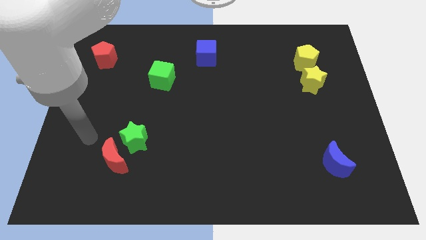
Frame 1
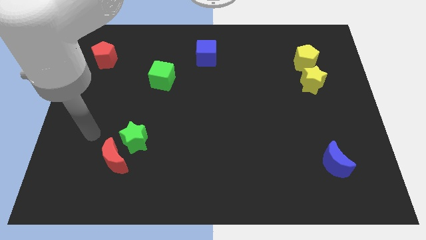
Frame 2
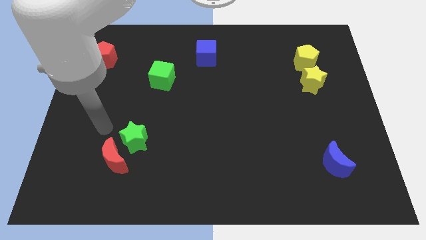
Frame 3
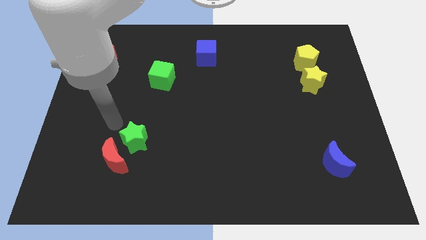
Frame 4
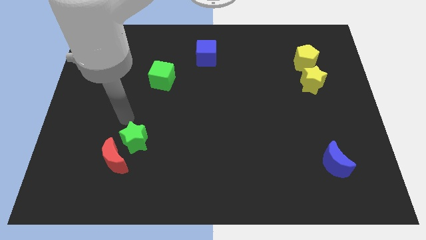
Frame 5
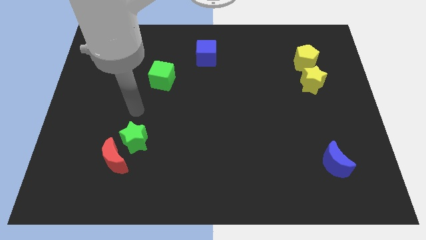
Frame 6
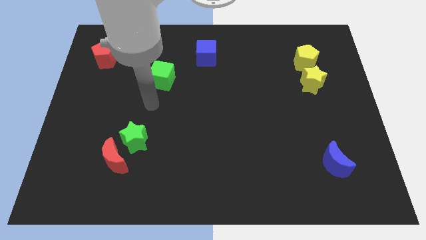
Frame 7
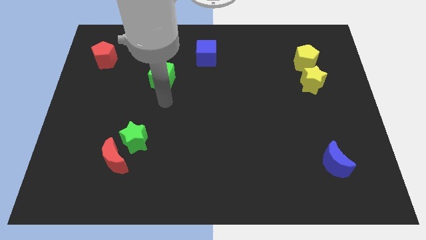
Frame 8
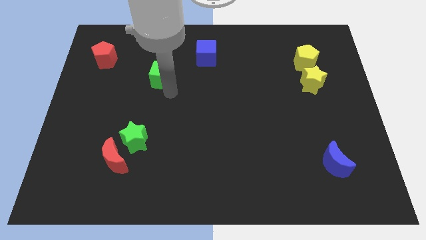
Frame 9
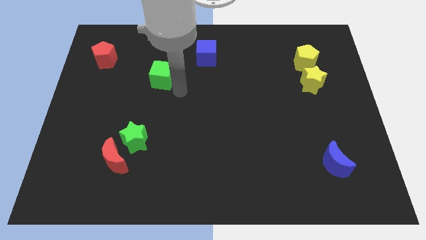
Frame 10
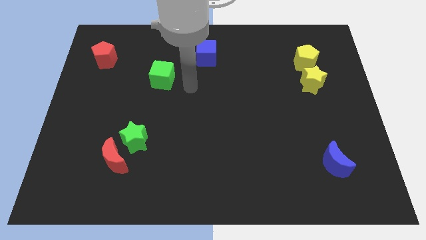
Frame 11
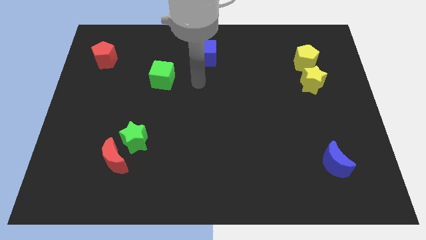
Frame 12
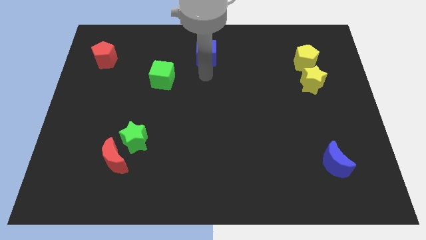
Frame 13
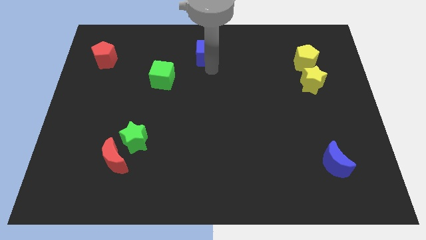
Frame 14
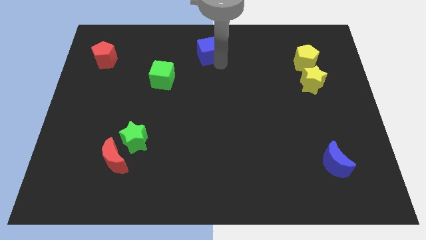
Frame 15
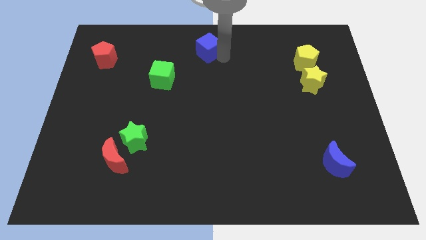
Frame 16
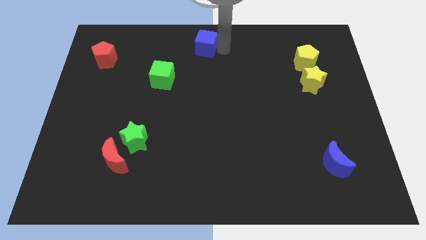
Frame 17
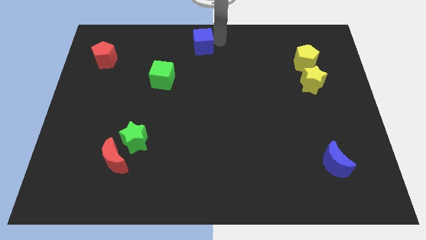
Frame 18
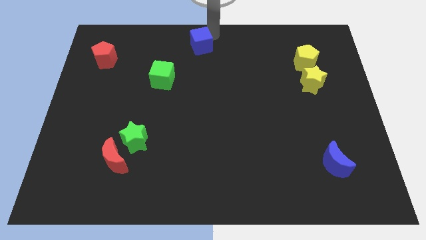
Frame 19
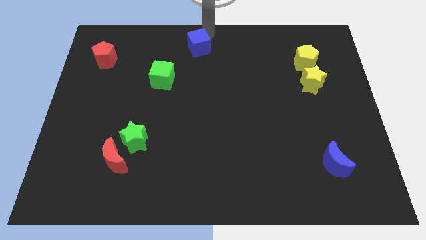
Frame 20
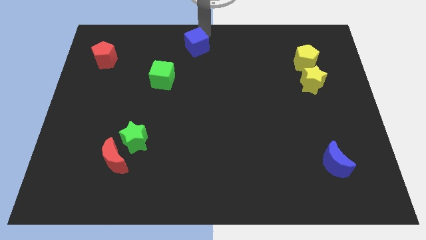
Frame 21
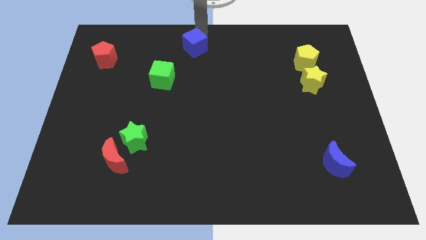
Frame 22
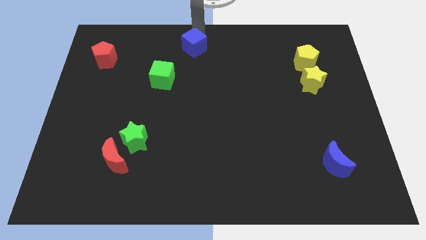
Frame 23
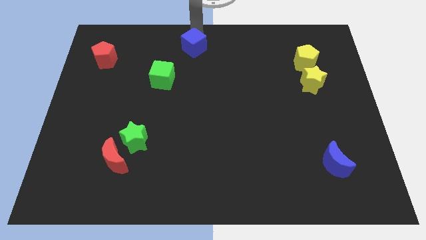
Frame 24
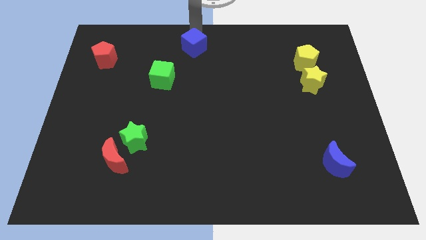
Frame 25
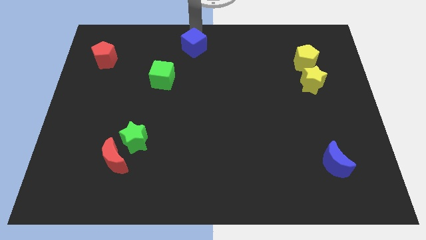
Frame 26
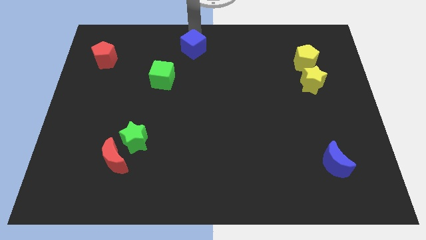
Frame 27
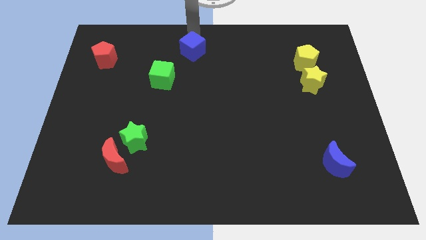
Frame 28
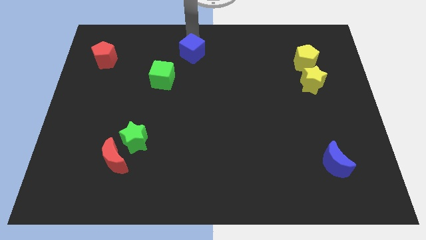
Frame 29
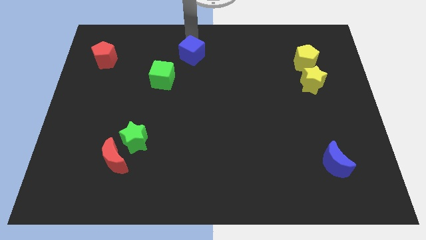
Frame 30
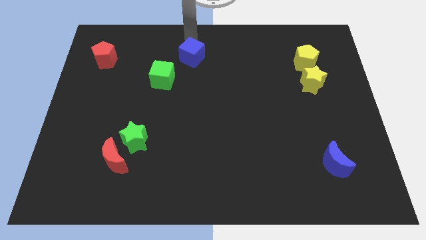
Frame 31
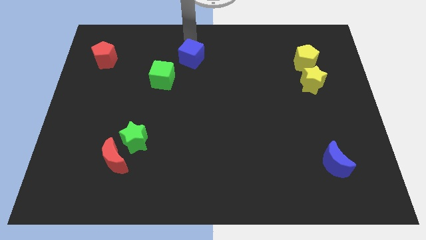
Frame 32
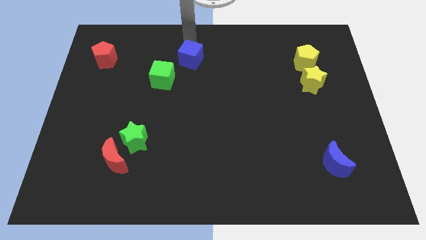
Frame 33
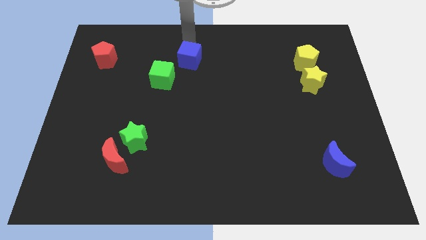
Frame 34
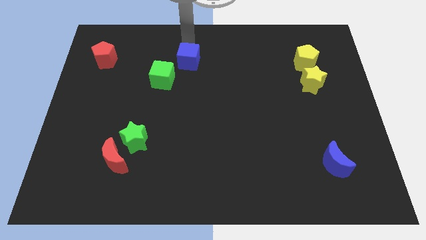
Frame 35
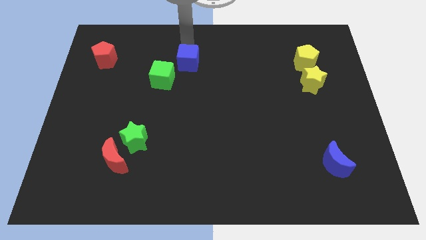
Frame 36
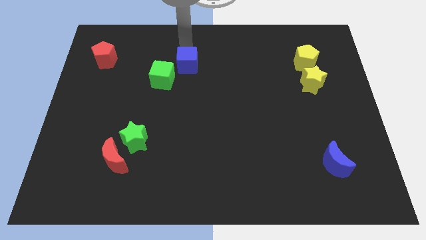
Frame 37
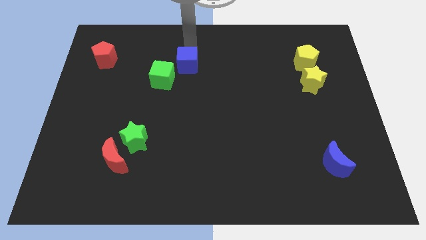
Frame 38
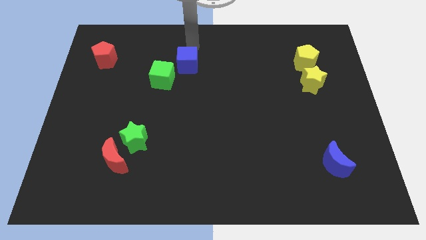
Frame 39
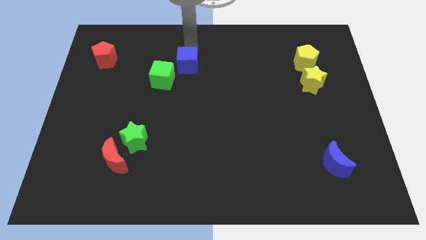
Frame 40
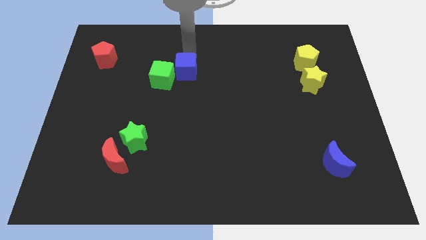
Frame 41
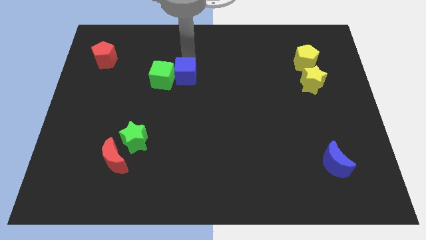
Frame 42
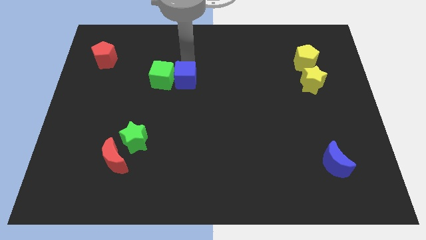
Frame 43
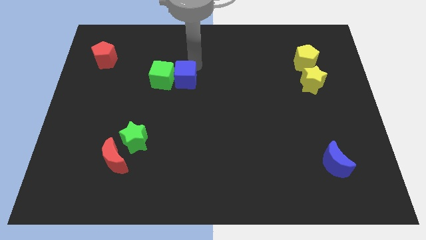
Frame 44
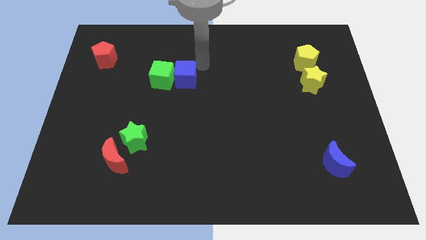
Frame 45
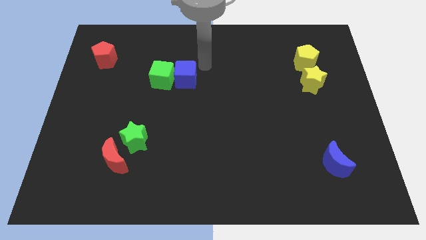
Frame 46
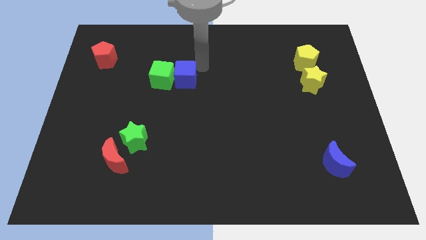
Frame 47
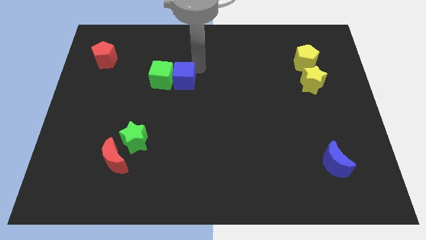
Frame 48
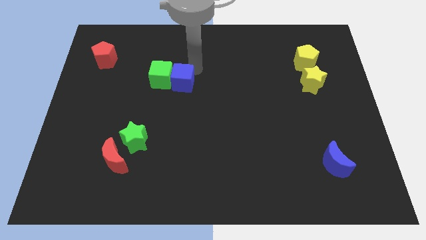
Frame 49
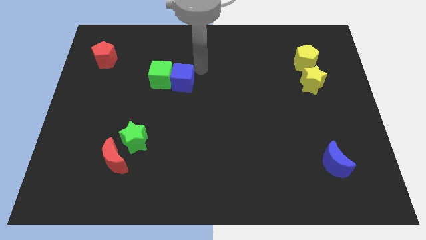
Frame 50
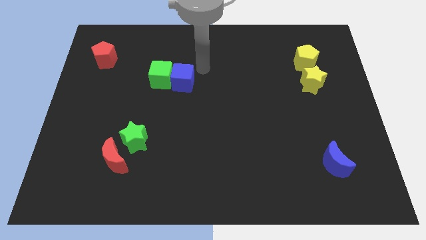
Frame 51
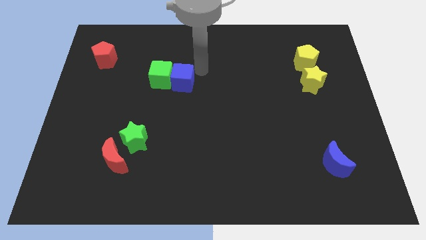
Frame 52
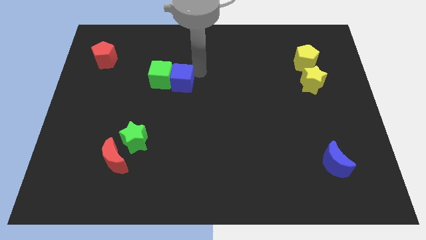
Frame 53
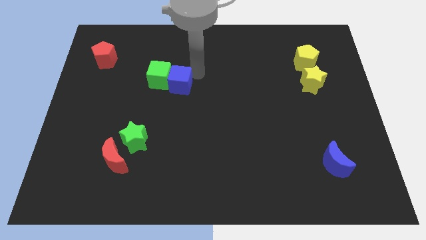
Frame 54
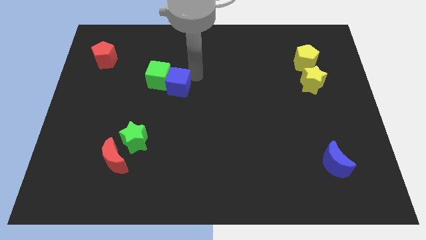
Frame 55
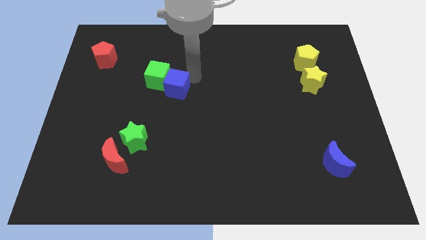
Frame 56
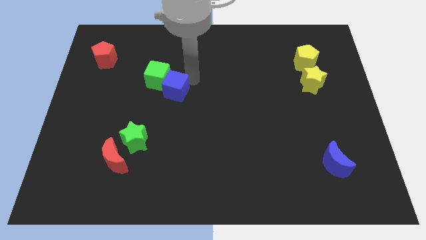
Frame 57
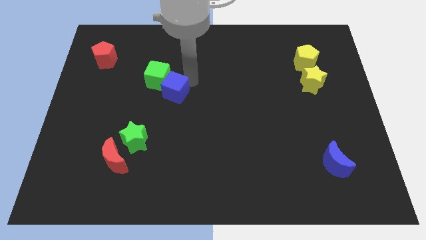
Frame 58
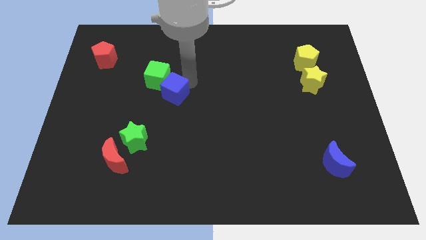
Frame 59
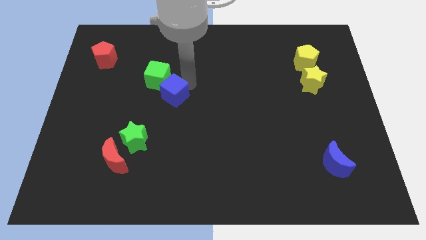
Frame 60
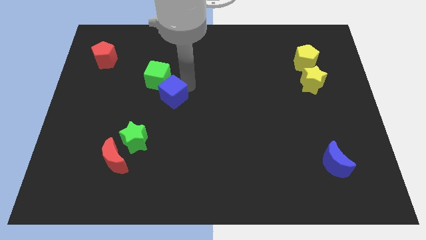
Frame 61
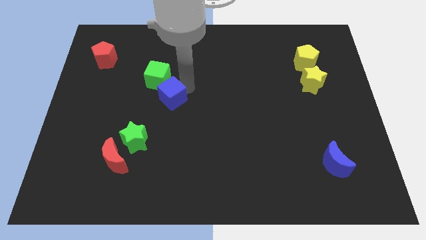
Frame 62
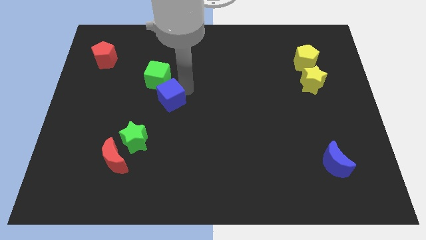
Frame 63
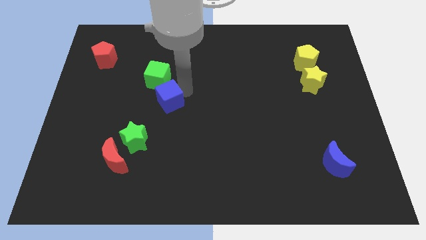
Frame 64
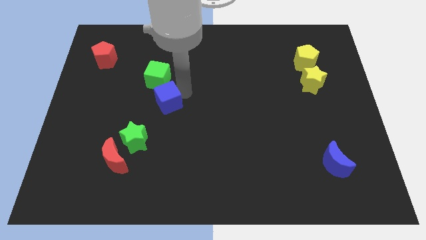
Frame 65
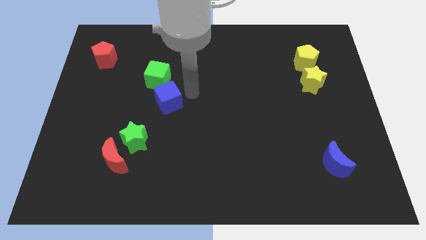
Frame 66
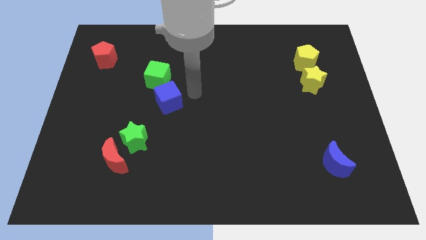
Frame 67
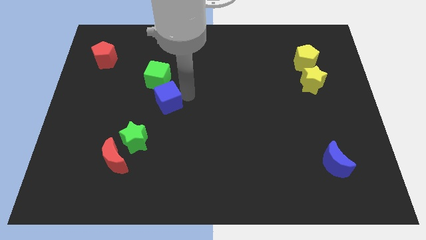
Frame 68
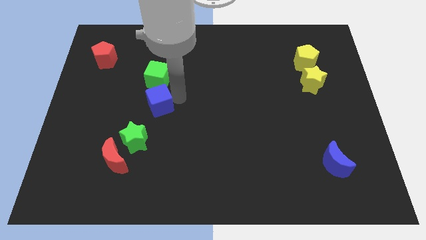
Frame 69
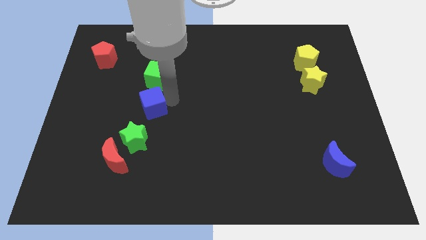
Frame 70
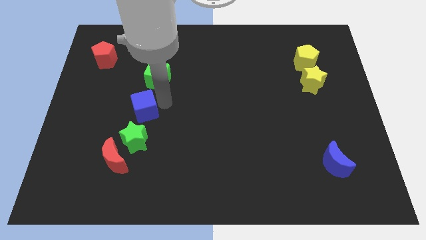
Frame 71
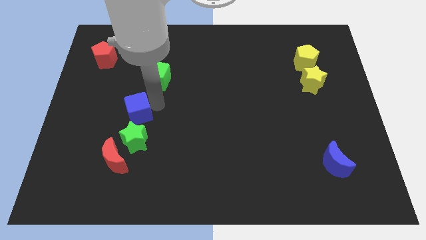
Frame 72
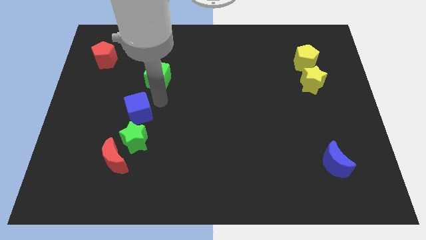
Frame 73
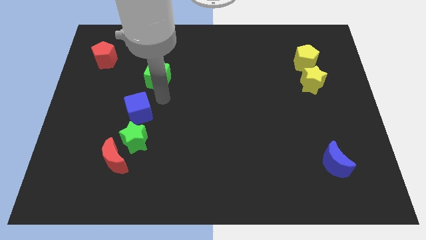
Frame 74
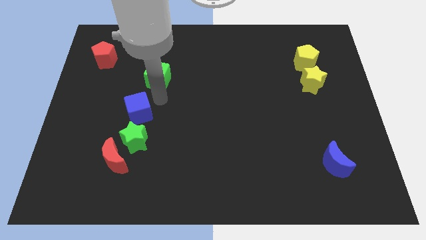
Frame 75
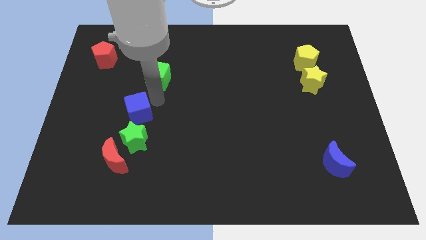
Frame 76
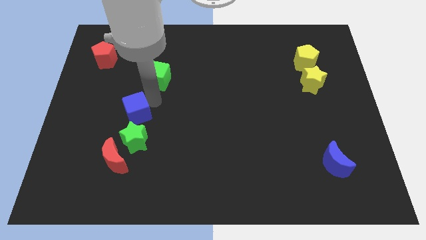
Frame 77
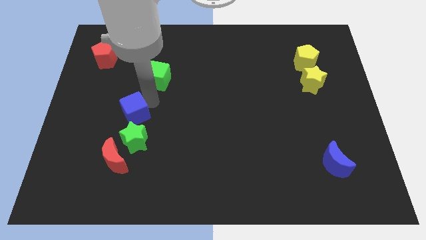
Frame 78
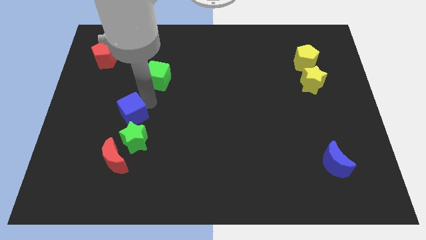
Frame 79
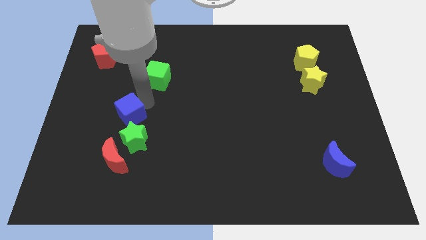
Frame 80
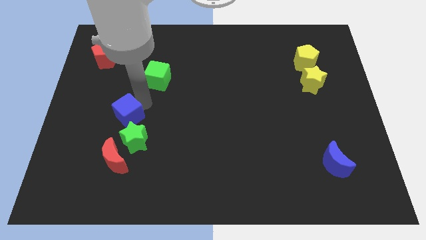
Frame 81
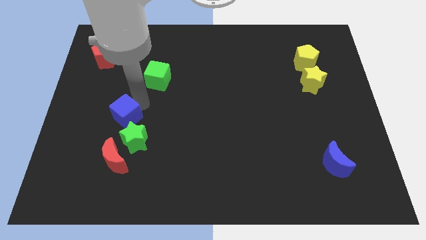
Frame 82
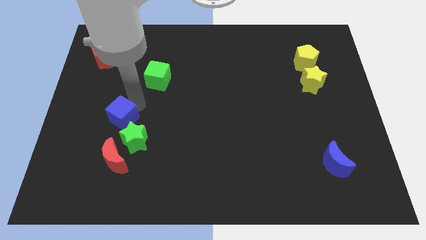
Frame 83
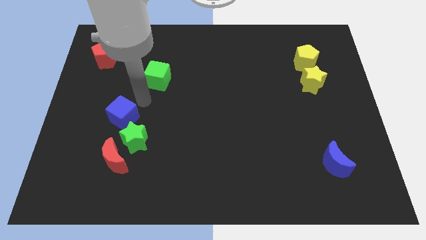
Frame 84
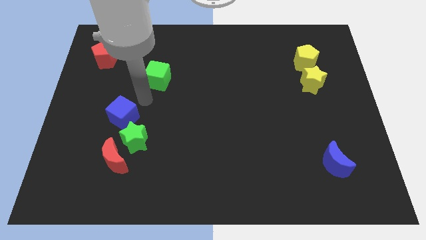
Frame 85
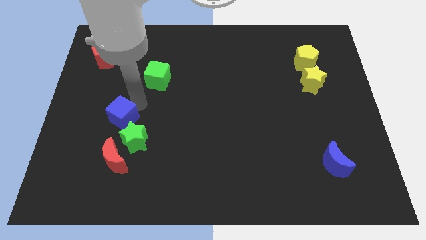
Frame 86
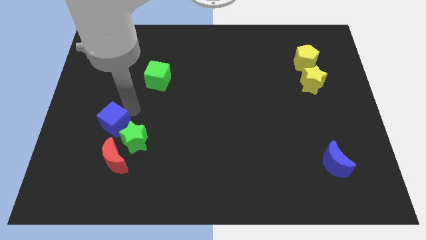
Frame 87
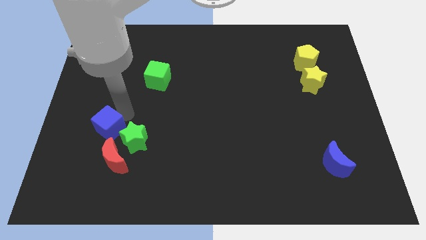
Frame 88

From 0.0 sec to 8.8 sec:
put the blue cube to the top left of the red moon
